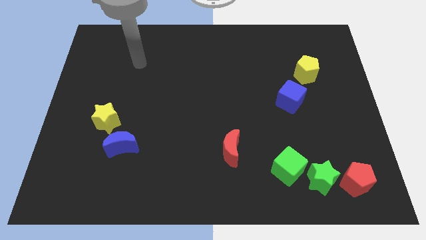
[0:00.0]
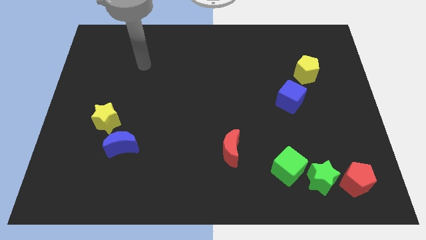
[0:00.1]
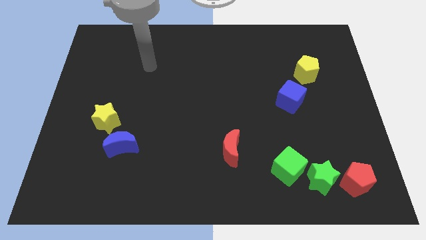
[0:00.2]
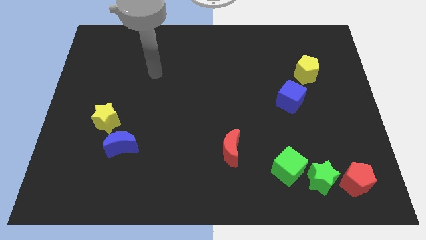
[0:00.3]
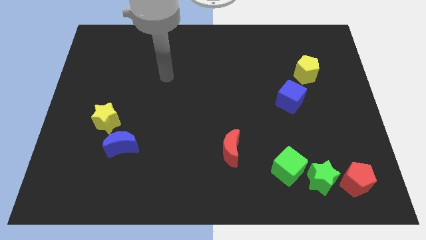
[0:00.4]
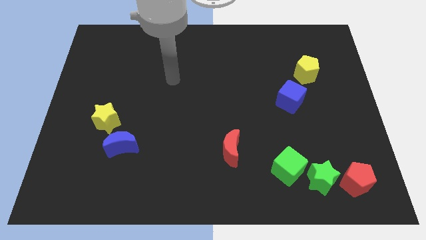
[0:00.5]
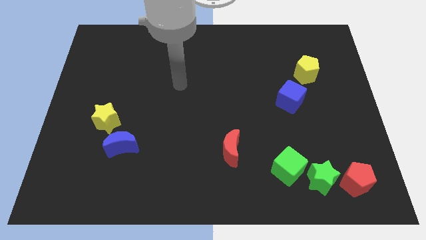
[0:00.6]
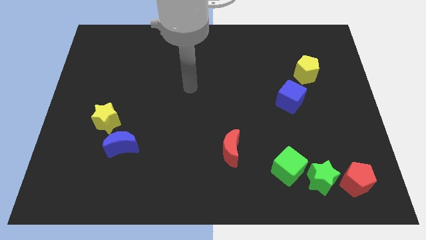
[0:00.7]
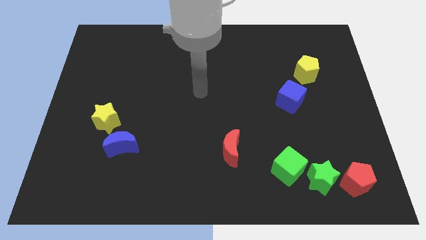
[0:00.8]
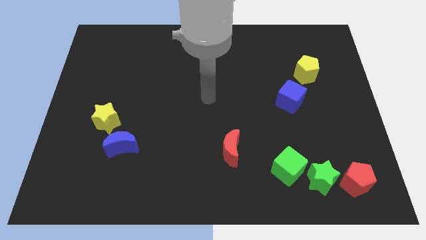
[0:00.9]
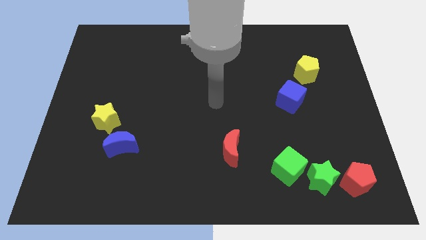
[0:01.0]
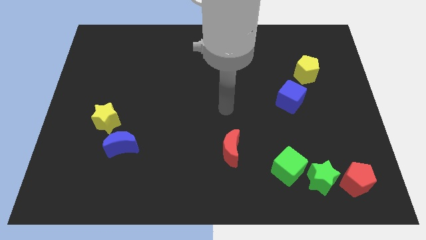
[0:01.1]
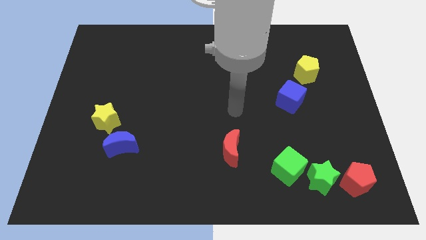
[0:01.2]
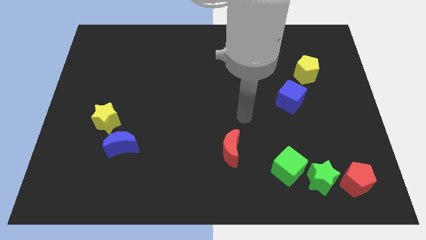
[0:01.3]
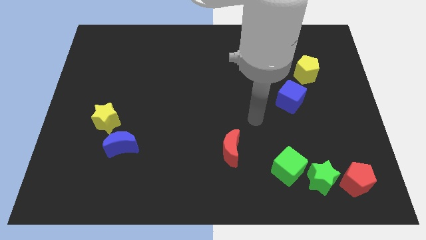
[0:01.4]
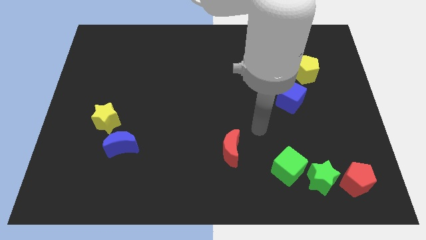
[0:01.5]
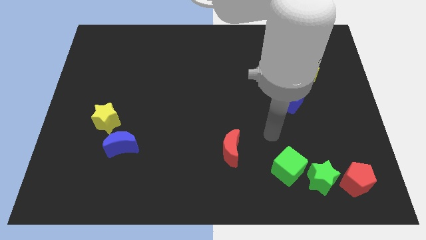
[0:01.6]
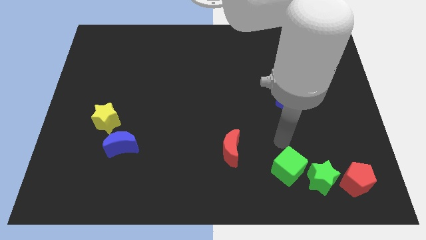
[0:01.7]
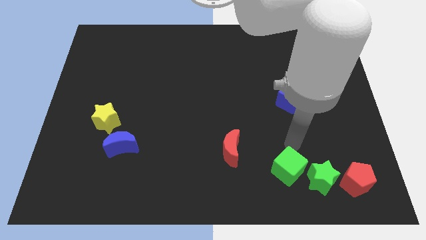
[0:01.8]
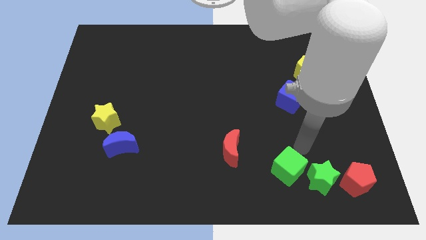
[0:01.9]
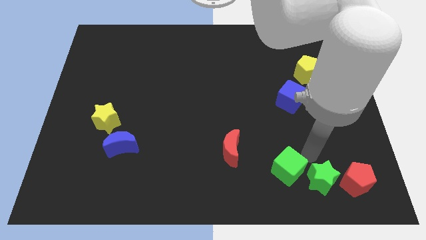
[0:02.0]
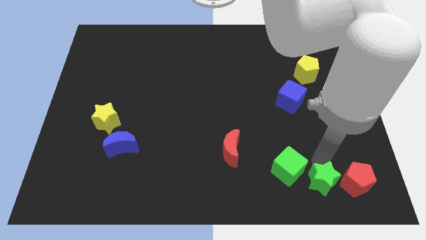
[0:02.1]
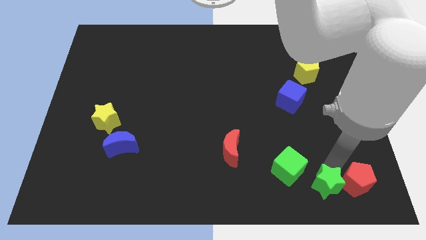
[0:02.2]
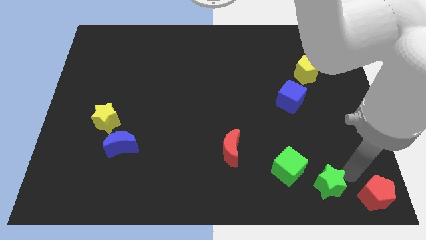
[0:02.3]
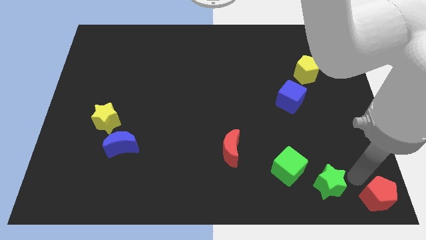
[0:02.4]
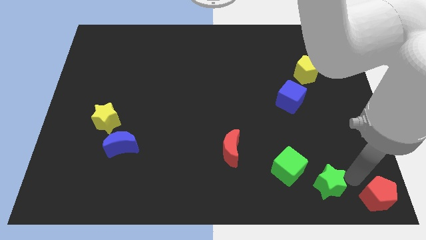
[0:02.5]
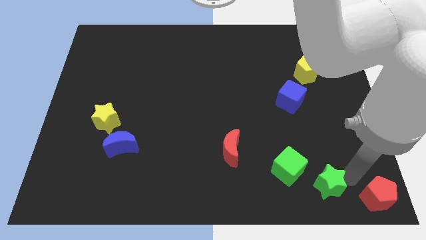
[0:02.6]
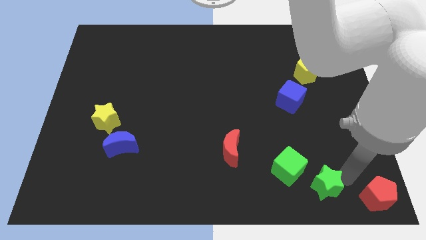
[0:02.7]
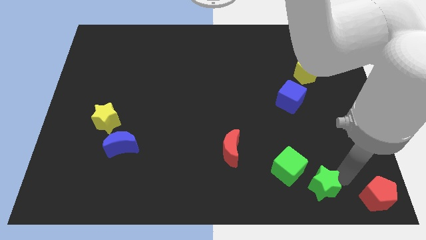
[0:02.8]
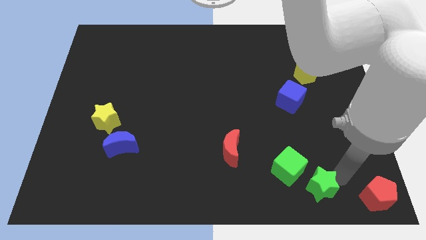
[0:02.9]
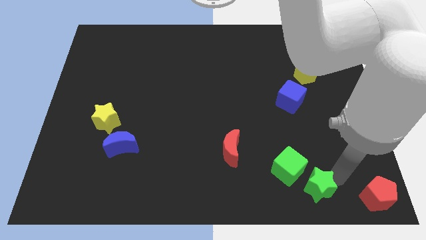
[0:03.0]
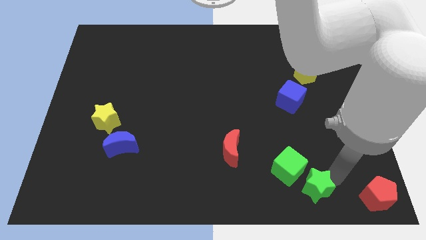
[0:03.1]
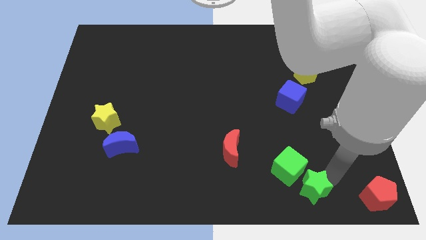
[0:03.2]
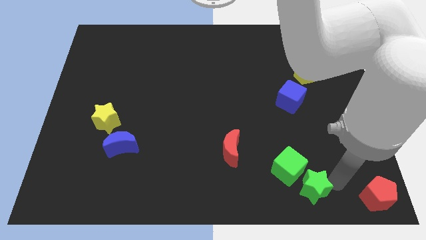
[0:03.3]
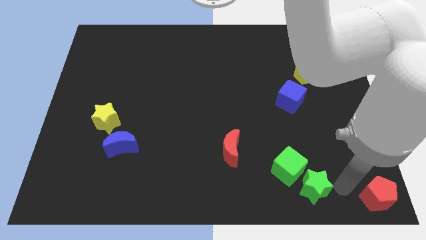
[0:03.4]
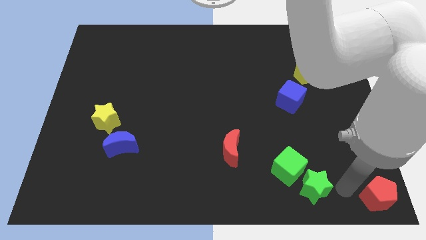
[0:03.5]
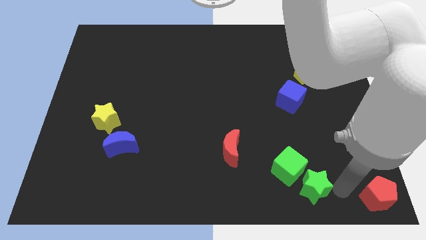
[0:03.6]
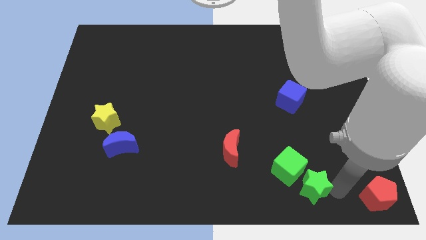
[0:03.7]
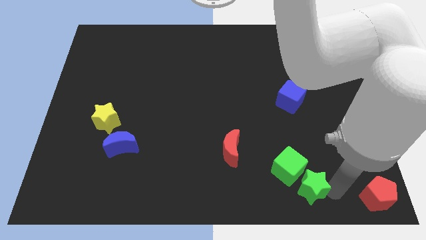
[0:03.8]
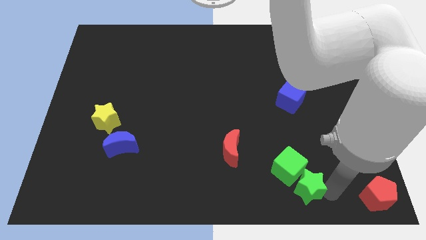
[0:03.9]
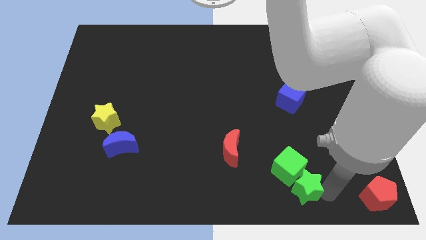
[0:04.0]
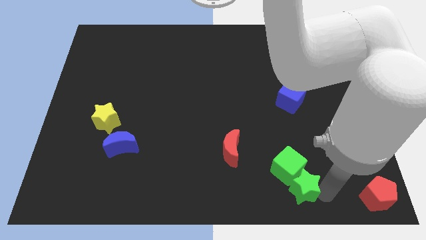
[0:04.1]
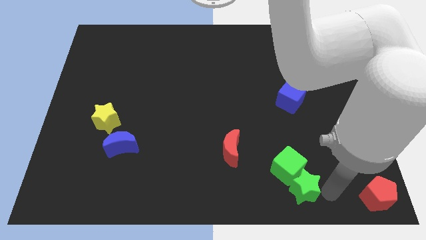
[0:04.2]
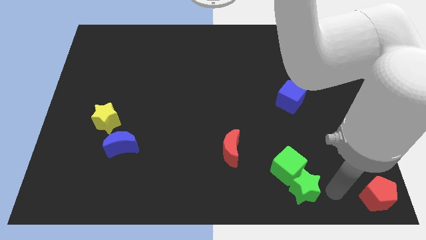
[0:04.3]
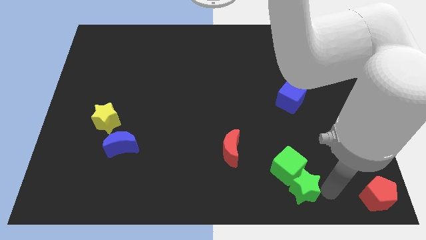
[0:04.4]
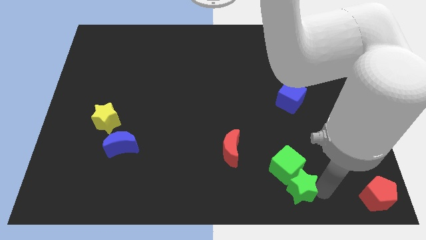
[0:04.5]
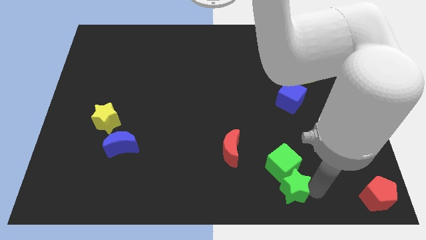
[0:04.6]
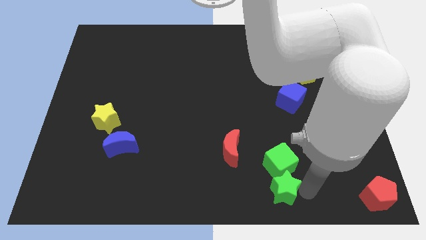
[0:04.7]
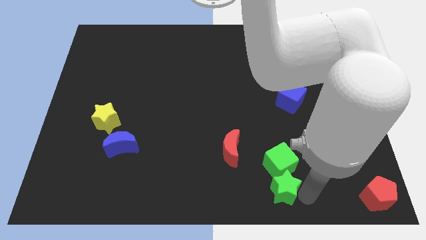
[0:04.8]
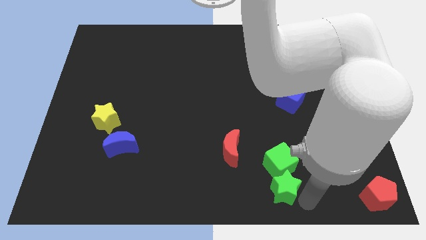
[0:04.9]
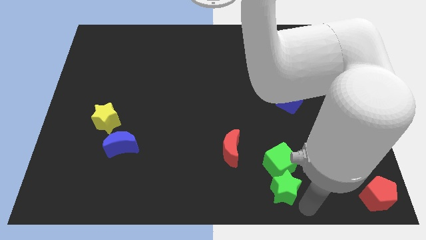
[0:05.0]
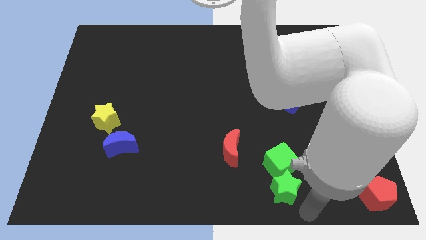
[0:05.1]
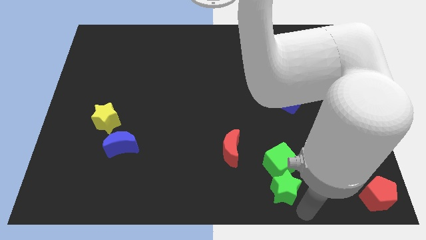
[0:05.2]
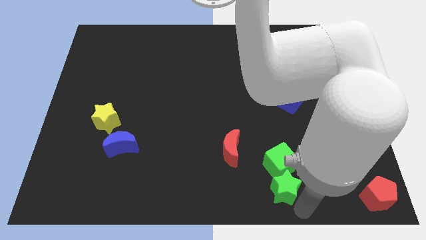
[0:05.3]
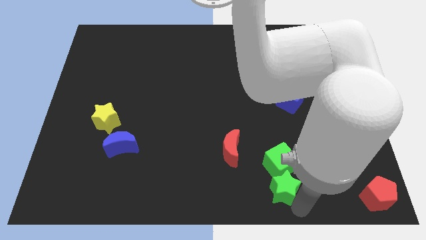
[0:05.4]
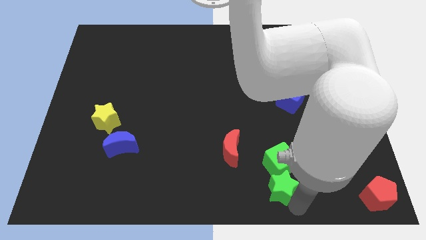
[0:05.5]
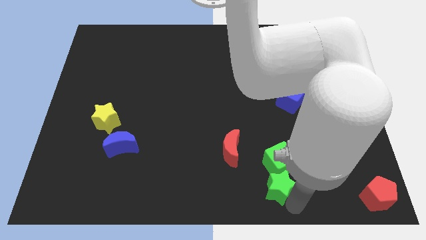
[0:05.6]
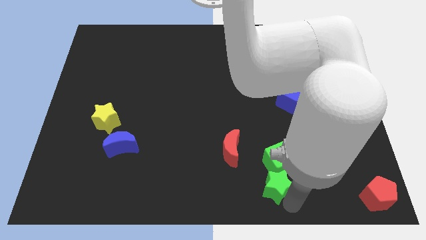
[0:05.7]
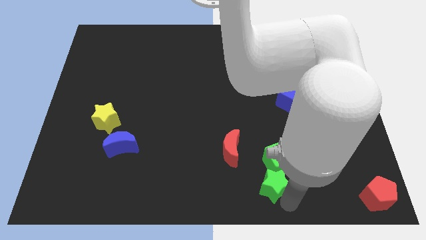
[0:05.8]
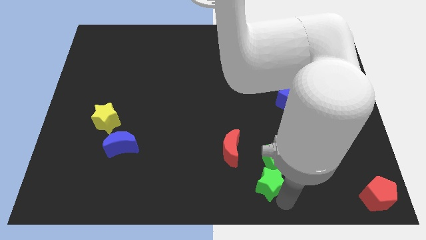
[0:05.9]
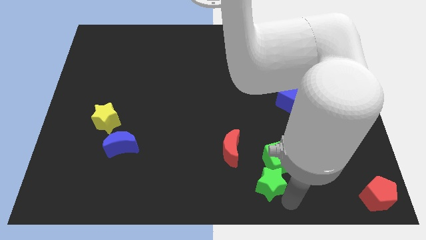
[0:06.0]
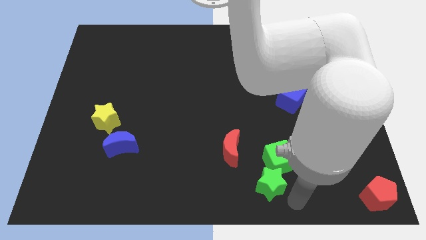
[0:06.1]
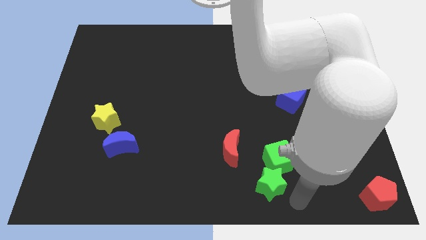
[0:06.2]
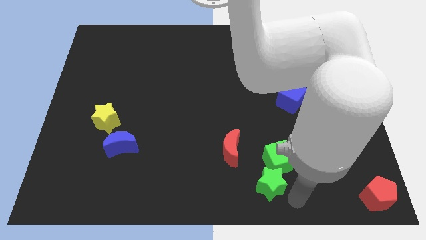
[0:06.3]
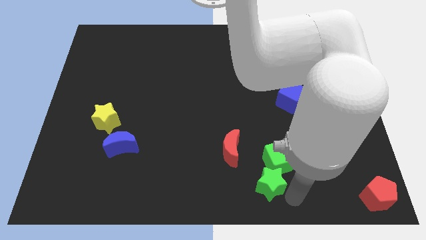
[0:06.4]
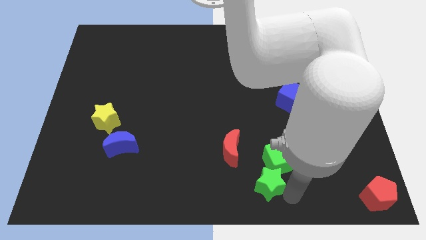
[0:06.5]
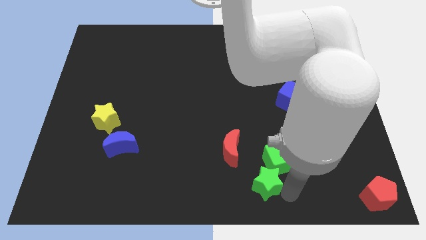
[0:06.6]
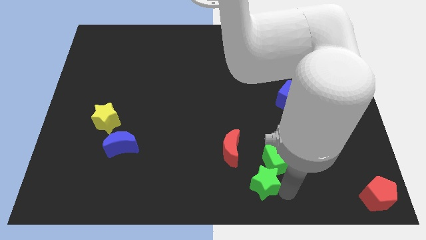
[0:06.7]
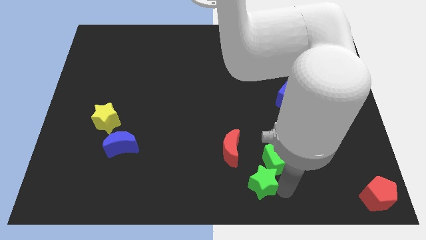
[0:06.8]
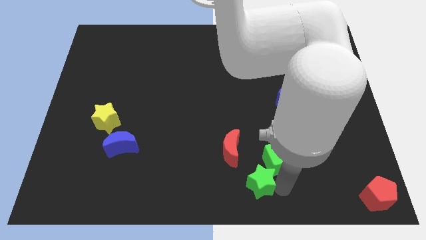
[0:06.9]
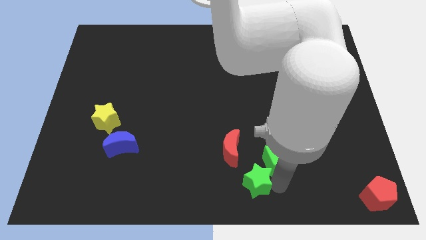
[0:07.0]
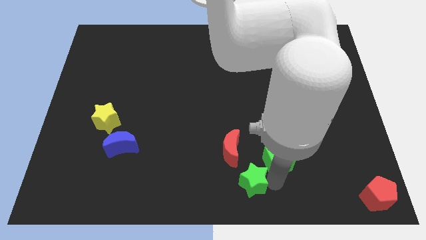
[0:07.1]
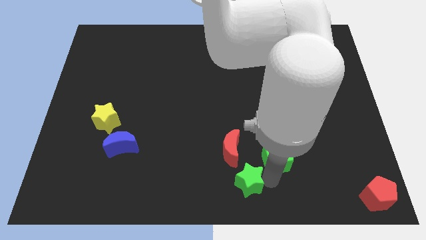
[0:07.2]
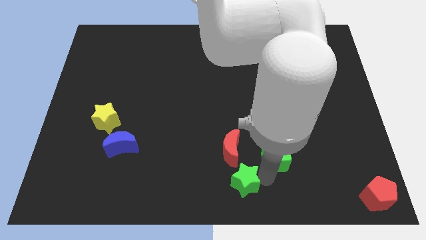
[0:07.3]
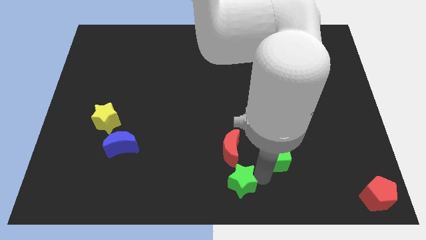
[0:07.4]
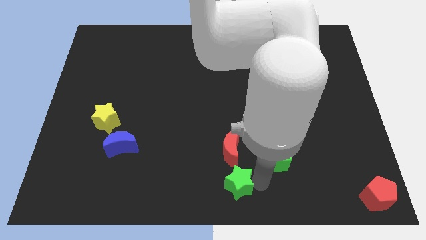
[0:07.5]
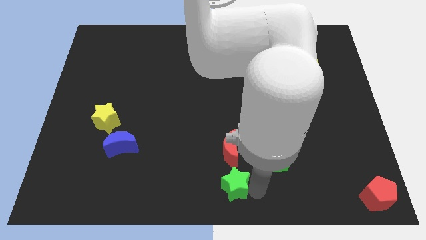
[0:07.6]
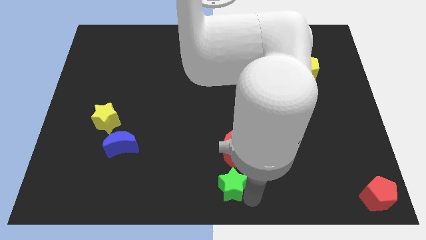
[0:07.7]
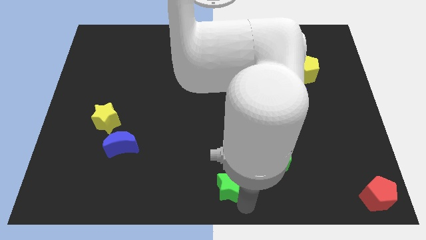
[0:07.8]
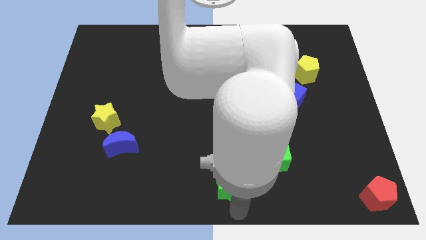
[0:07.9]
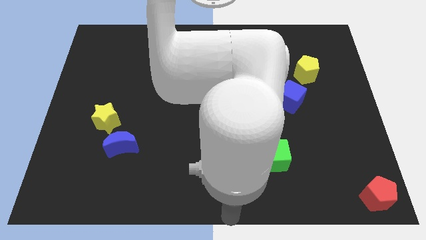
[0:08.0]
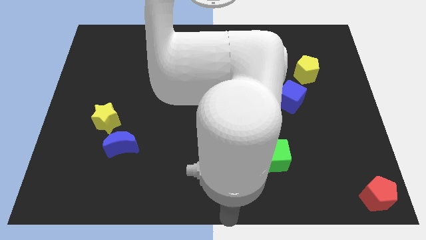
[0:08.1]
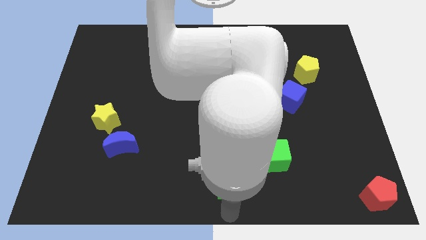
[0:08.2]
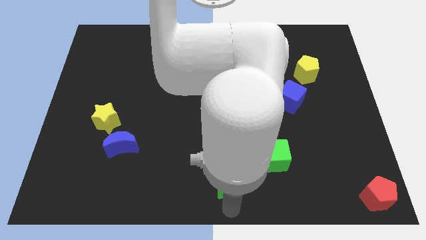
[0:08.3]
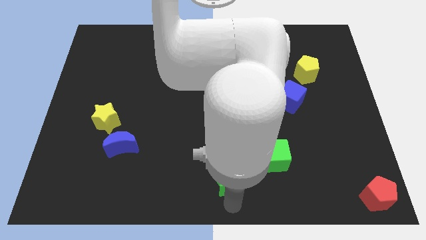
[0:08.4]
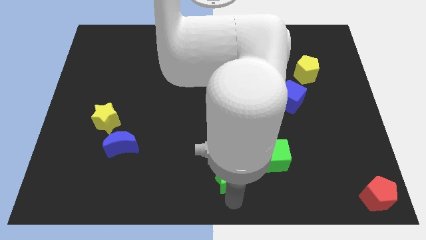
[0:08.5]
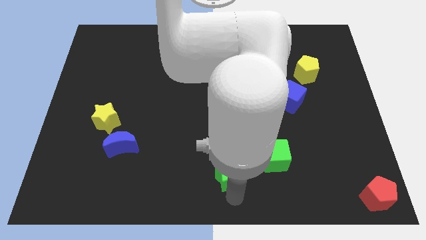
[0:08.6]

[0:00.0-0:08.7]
move the green star towards the red moon
